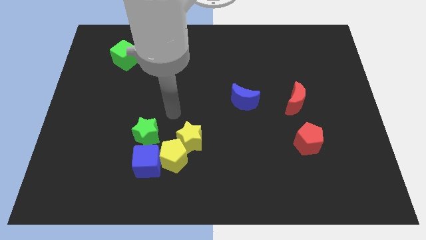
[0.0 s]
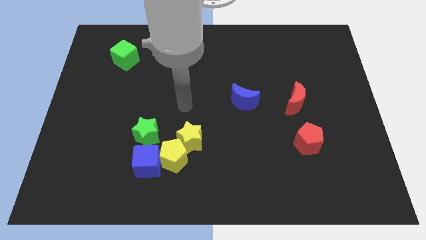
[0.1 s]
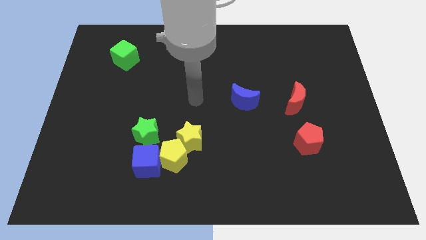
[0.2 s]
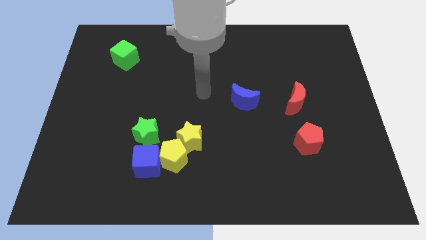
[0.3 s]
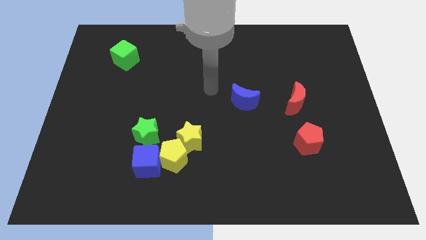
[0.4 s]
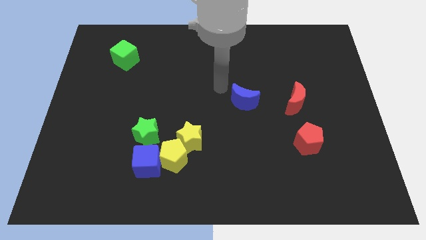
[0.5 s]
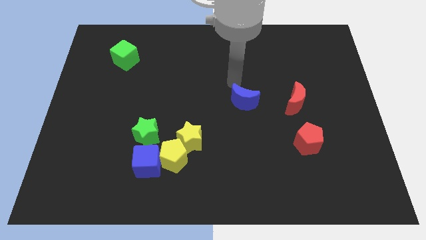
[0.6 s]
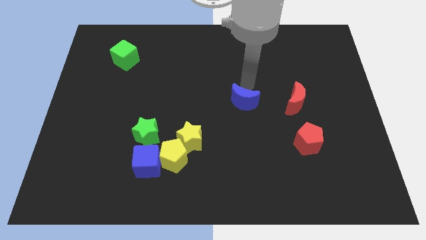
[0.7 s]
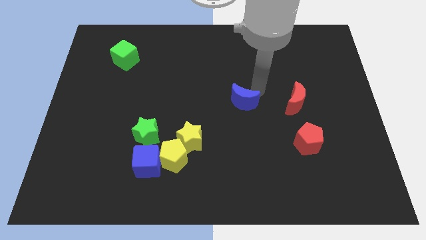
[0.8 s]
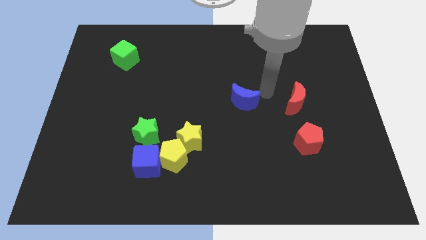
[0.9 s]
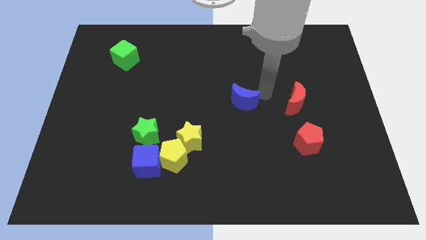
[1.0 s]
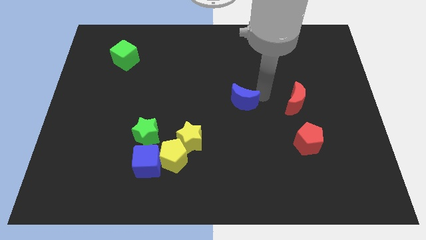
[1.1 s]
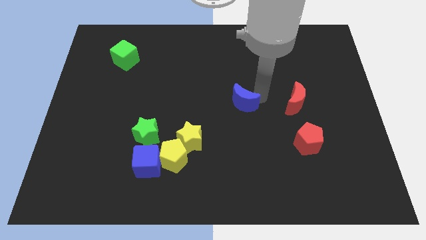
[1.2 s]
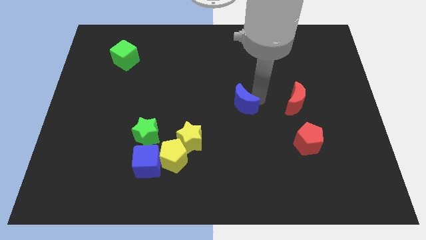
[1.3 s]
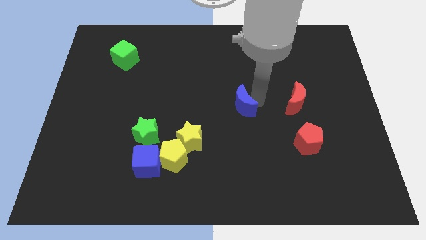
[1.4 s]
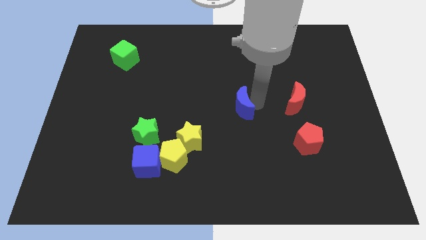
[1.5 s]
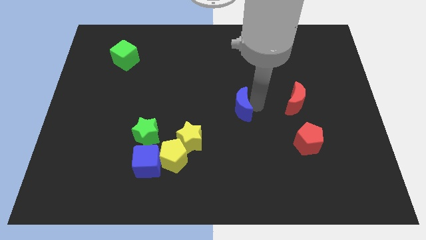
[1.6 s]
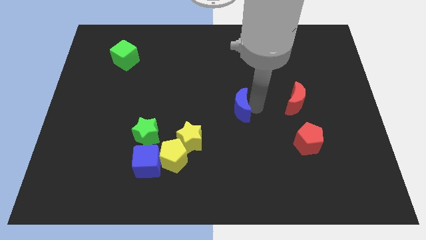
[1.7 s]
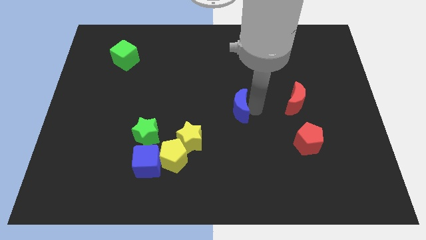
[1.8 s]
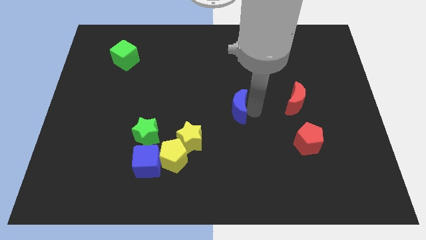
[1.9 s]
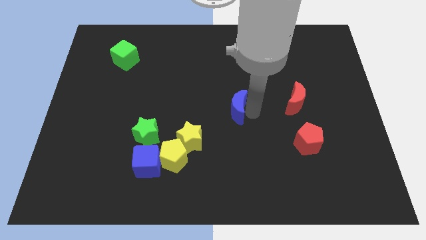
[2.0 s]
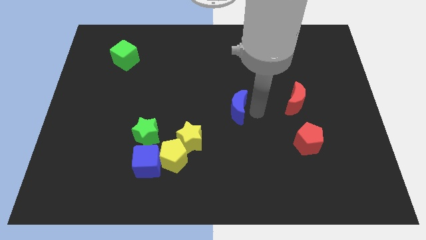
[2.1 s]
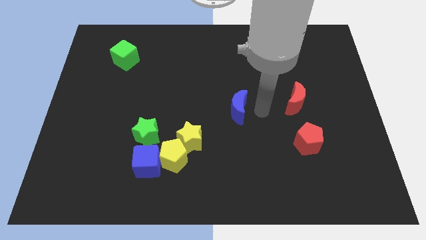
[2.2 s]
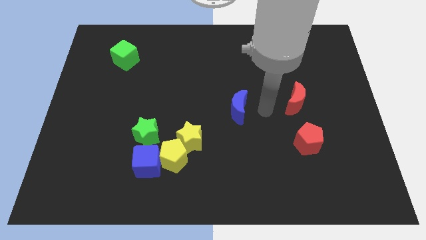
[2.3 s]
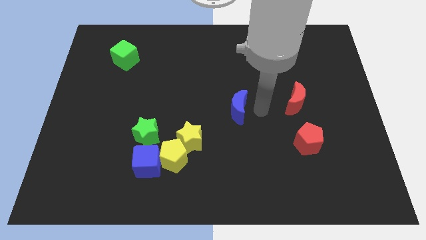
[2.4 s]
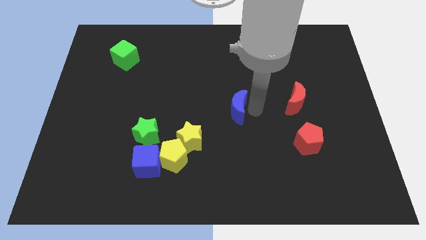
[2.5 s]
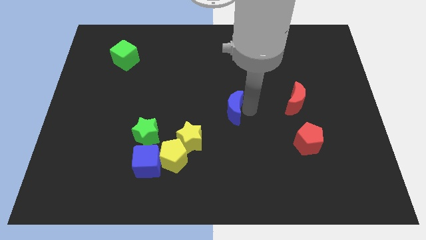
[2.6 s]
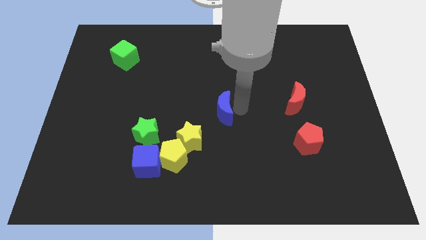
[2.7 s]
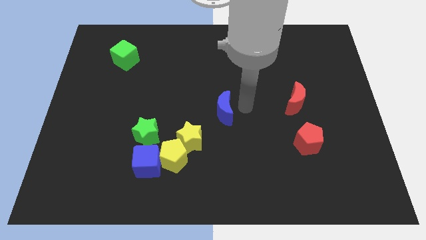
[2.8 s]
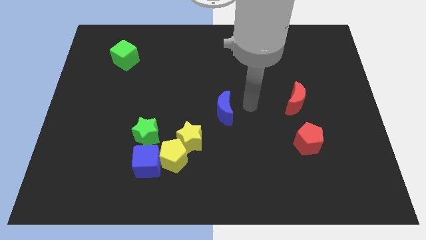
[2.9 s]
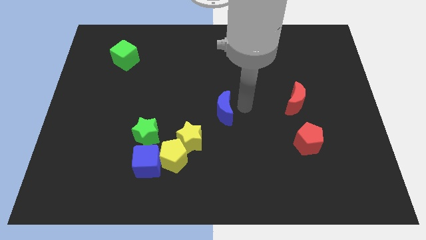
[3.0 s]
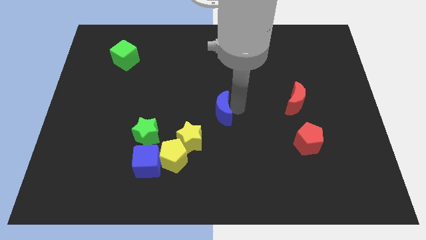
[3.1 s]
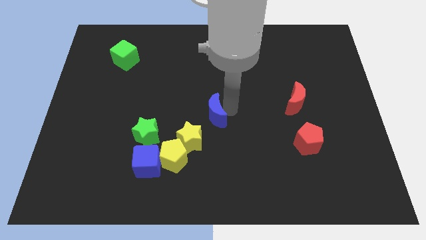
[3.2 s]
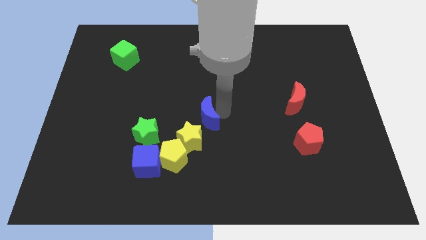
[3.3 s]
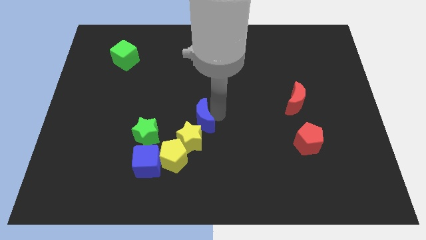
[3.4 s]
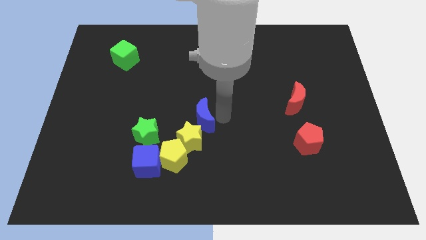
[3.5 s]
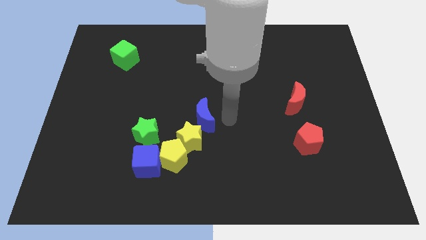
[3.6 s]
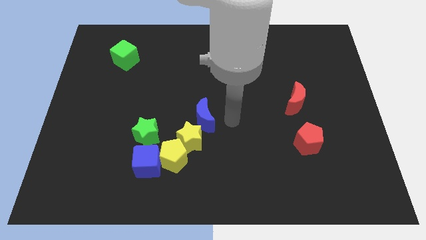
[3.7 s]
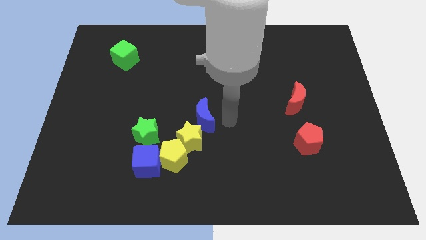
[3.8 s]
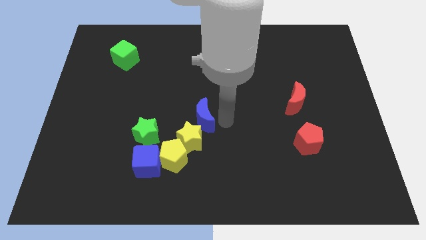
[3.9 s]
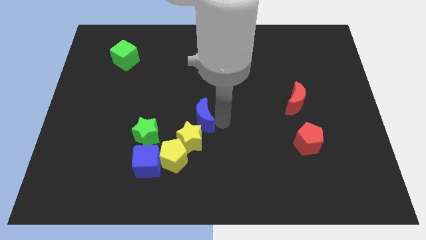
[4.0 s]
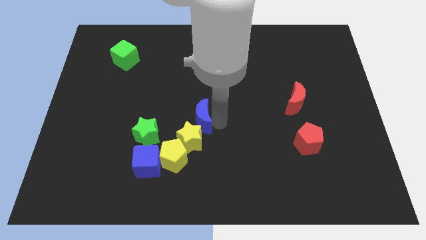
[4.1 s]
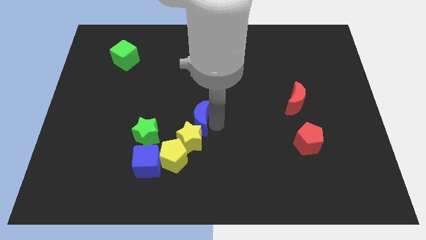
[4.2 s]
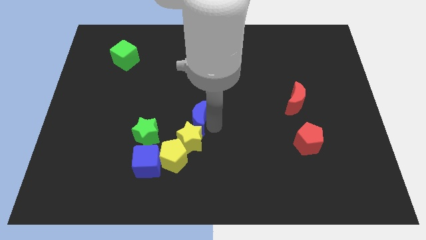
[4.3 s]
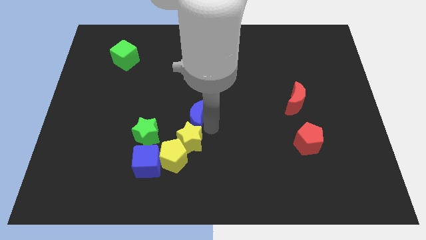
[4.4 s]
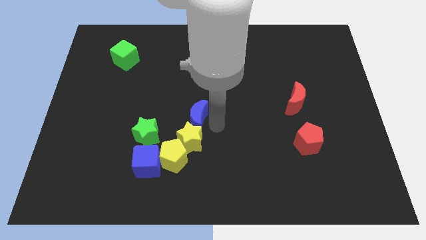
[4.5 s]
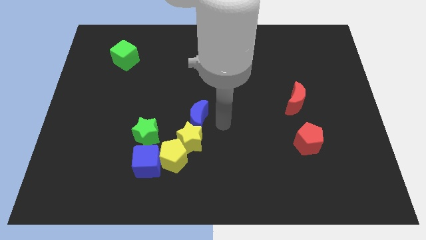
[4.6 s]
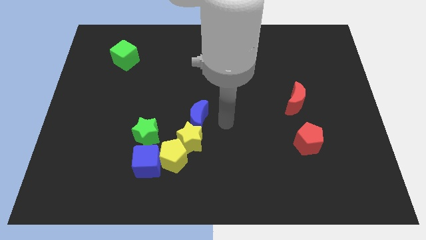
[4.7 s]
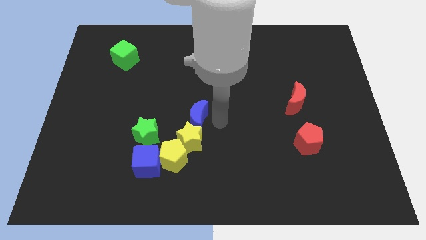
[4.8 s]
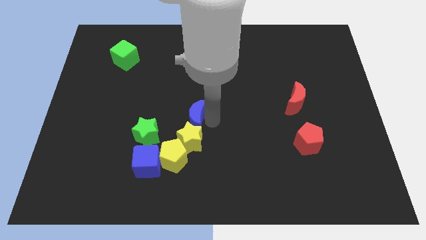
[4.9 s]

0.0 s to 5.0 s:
slide the blue moon diagonally up and to the right of the green star

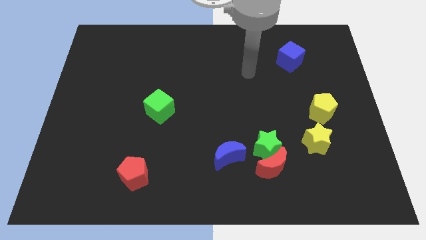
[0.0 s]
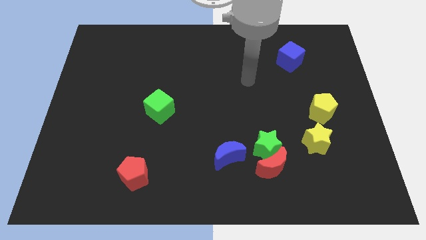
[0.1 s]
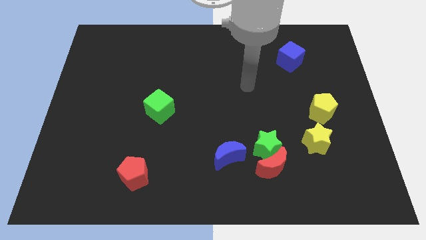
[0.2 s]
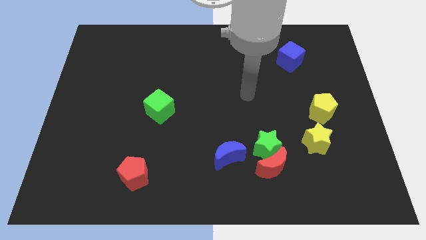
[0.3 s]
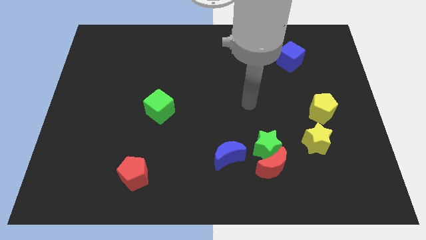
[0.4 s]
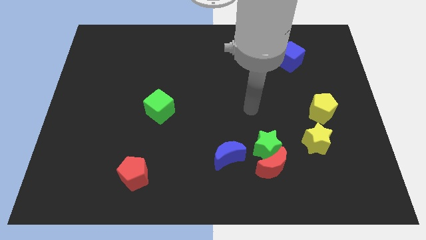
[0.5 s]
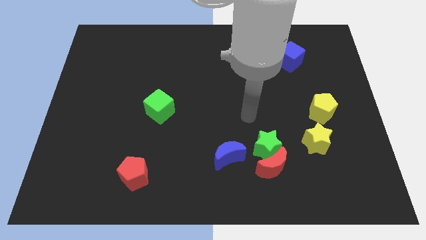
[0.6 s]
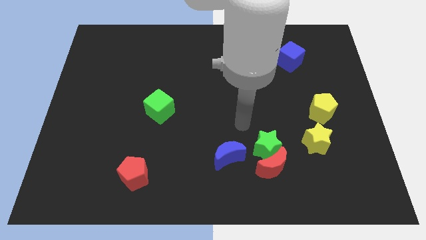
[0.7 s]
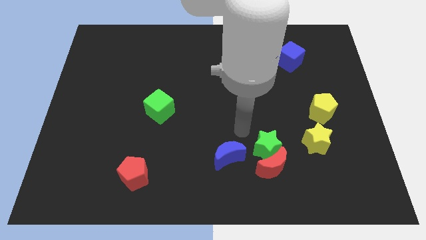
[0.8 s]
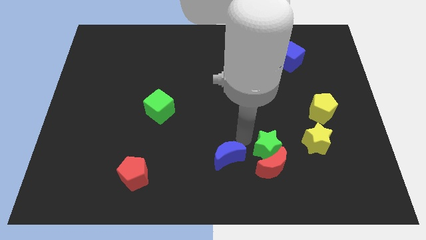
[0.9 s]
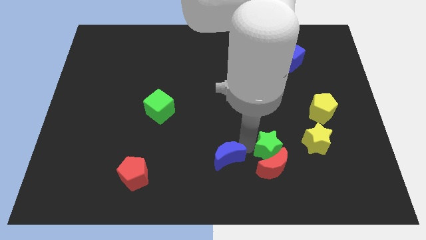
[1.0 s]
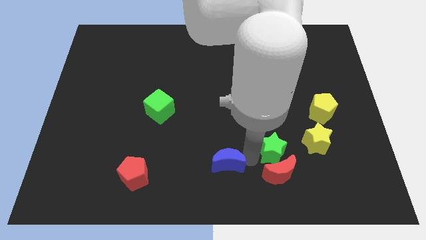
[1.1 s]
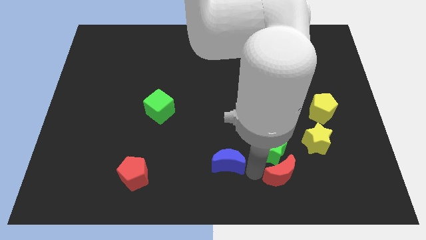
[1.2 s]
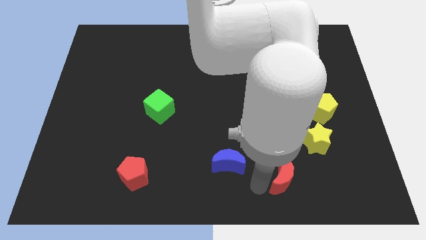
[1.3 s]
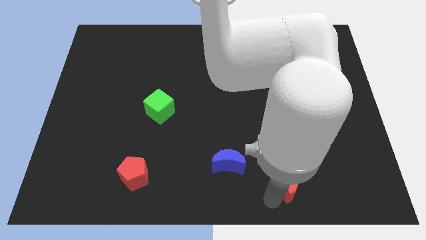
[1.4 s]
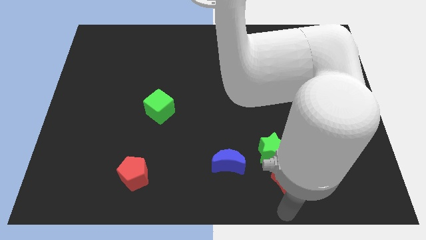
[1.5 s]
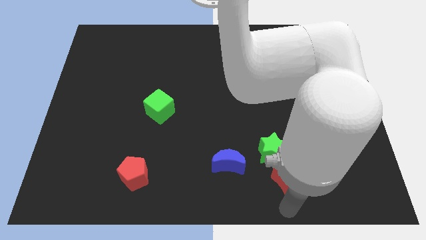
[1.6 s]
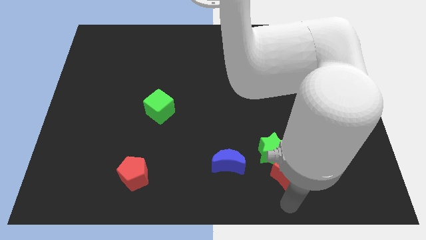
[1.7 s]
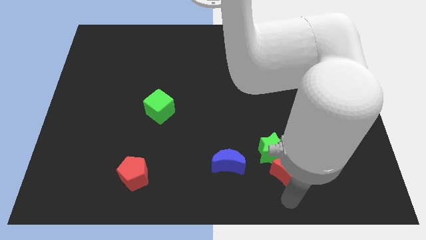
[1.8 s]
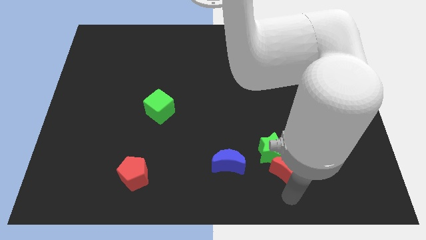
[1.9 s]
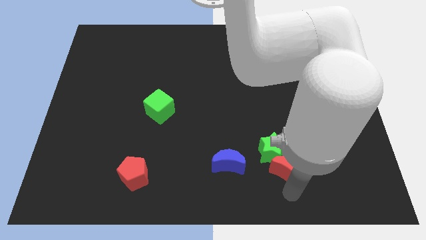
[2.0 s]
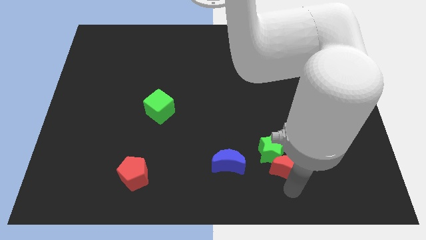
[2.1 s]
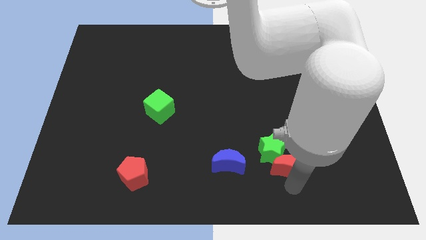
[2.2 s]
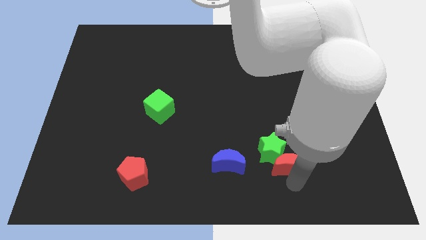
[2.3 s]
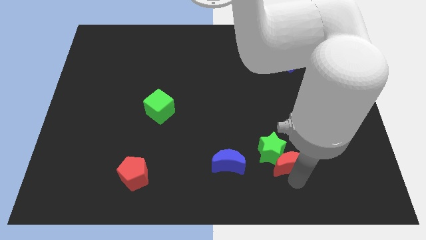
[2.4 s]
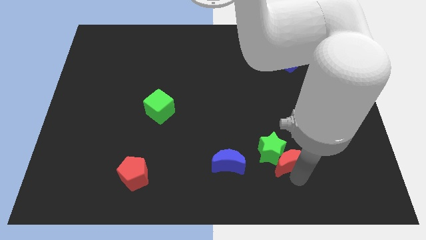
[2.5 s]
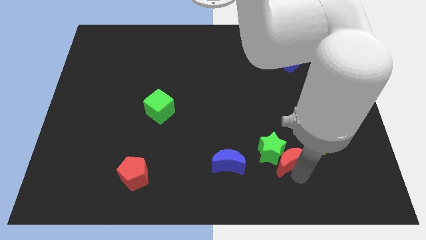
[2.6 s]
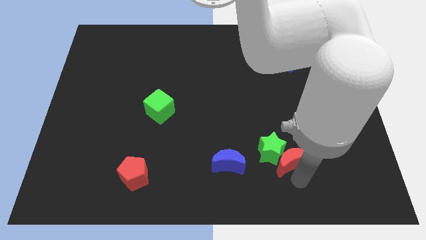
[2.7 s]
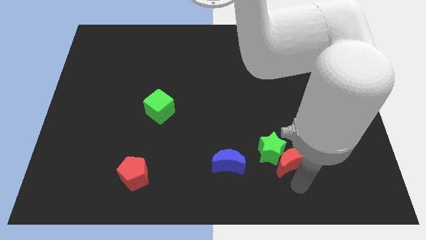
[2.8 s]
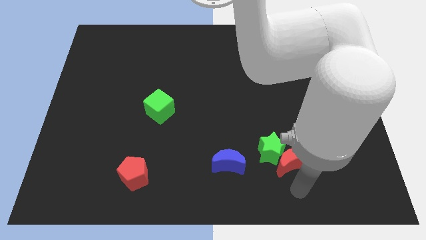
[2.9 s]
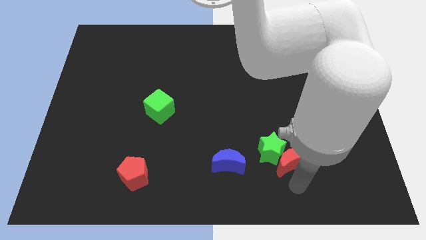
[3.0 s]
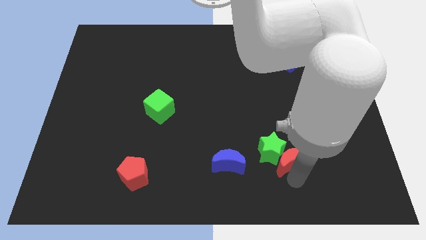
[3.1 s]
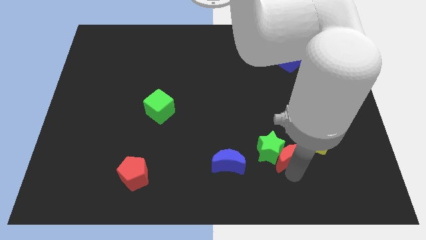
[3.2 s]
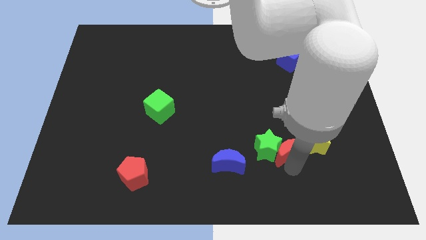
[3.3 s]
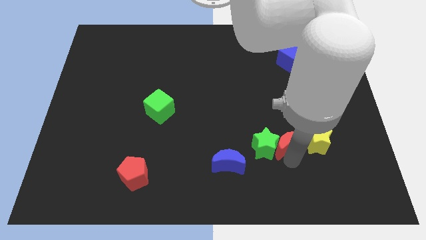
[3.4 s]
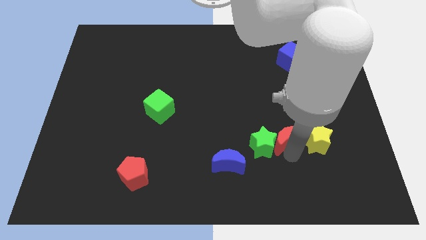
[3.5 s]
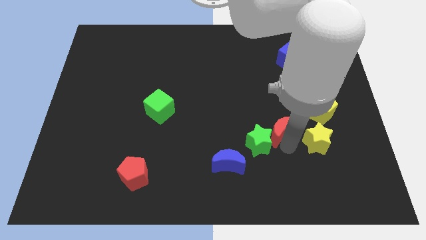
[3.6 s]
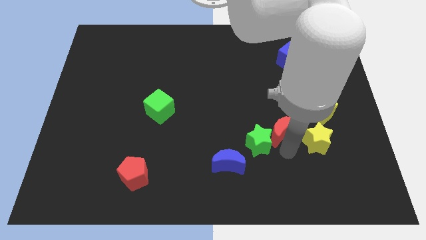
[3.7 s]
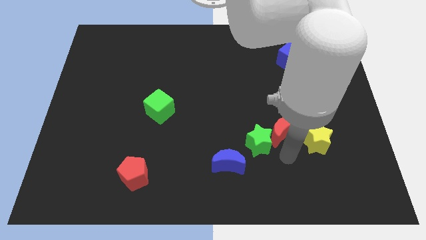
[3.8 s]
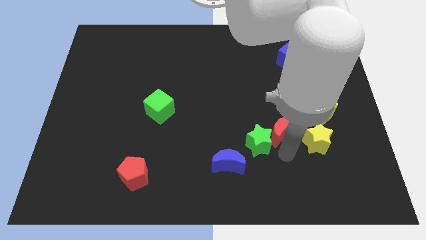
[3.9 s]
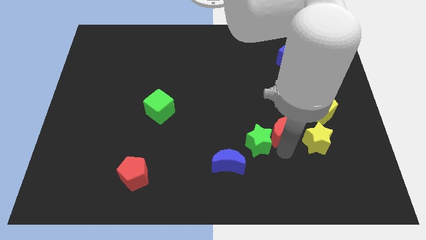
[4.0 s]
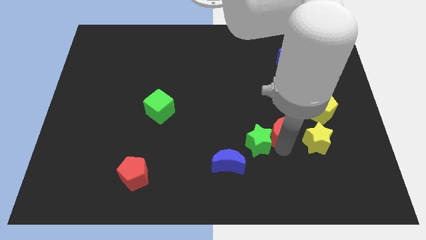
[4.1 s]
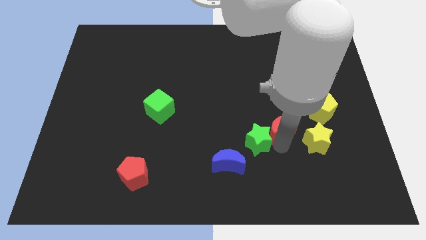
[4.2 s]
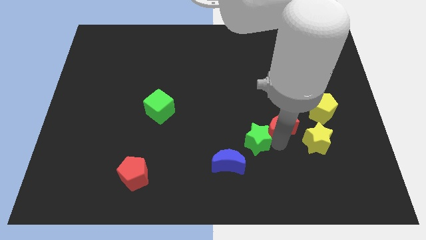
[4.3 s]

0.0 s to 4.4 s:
push the red moon to the left of the yellow pentagon
